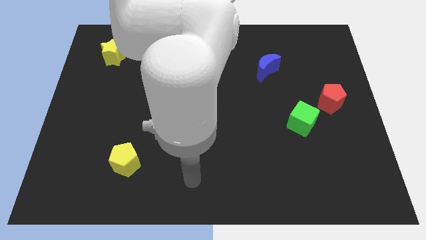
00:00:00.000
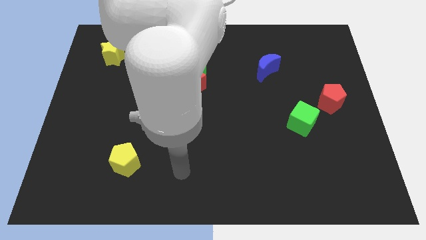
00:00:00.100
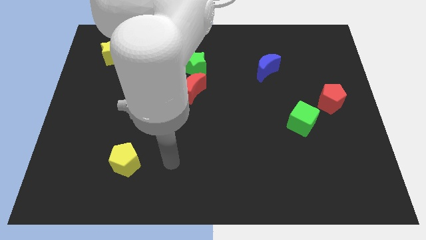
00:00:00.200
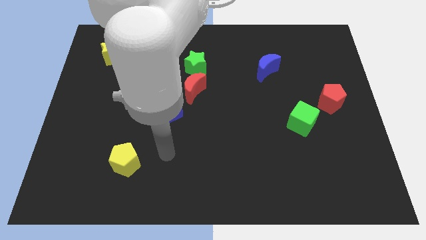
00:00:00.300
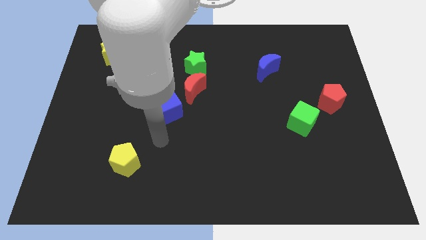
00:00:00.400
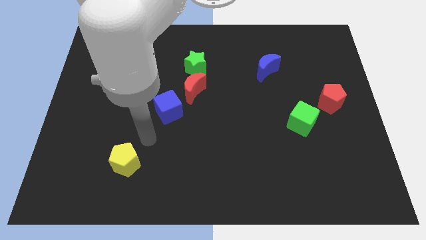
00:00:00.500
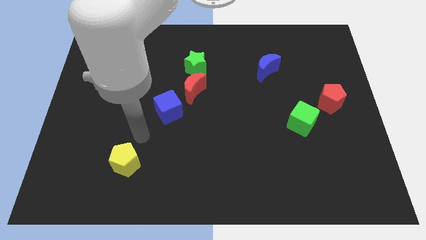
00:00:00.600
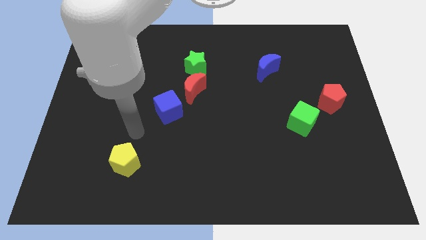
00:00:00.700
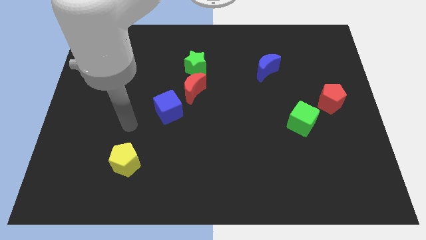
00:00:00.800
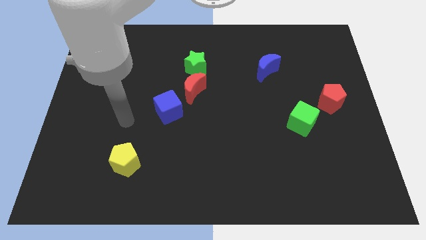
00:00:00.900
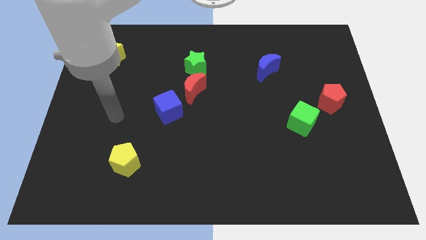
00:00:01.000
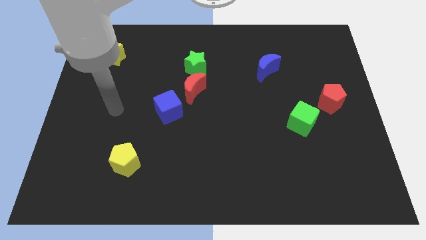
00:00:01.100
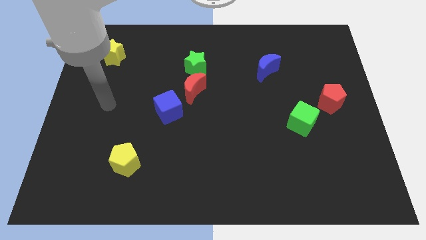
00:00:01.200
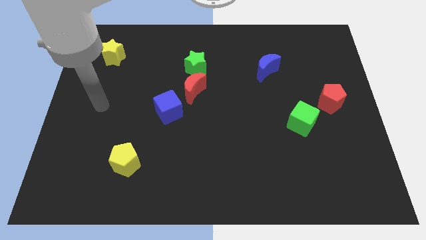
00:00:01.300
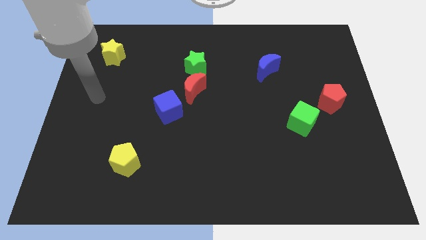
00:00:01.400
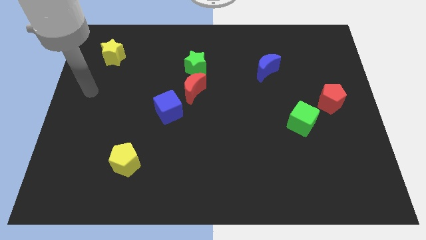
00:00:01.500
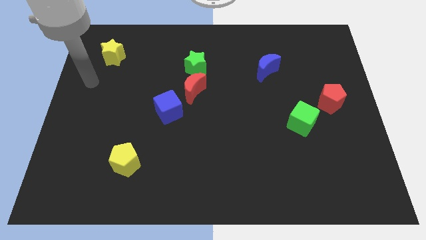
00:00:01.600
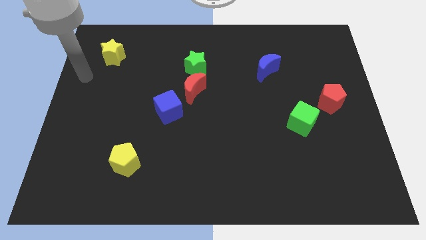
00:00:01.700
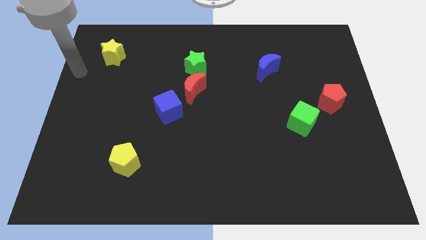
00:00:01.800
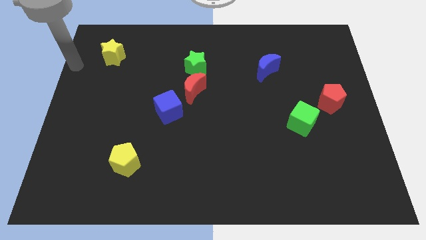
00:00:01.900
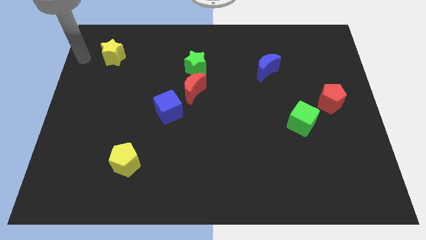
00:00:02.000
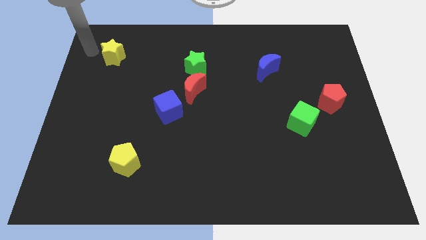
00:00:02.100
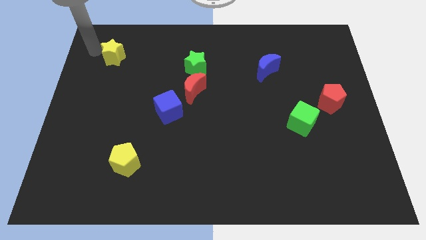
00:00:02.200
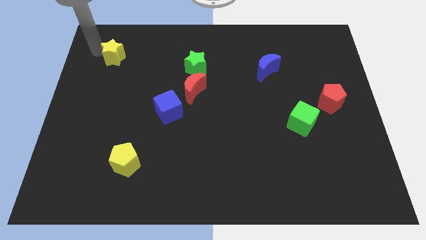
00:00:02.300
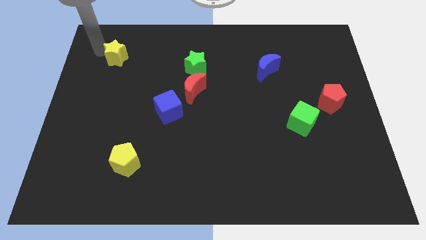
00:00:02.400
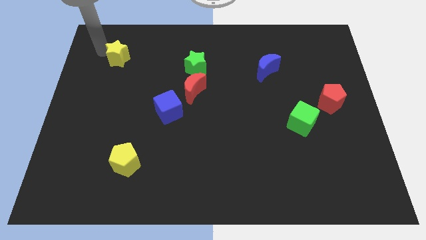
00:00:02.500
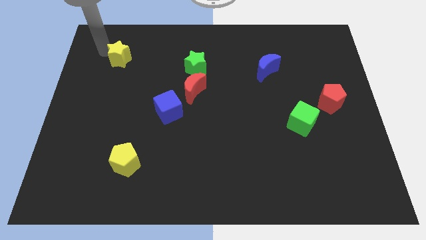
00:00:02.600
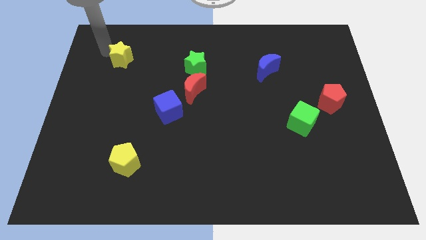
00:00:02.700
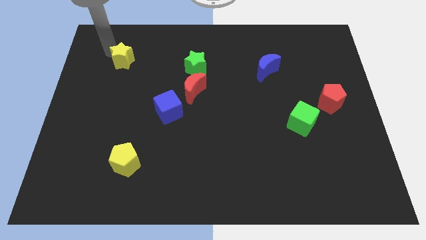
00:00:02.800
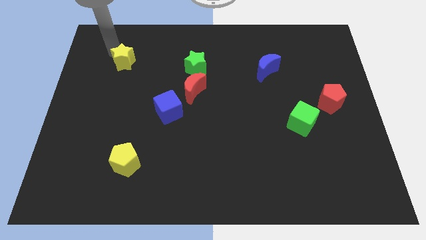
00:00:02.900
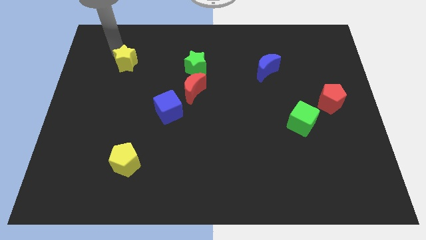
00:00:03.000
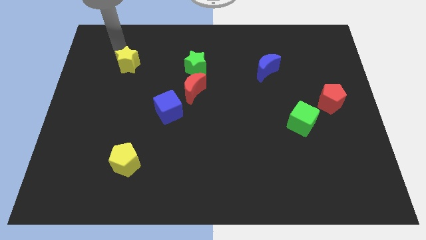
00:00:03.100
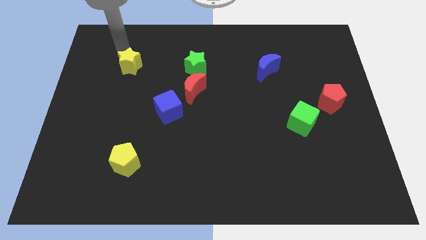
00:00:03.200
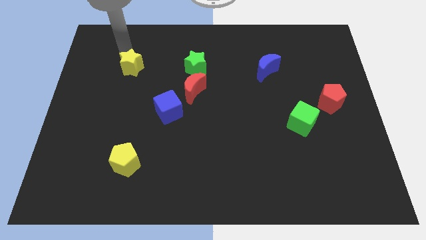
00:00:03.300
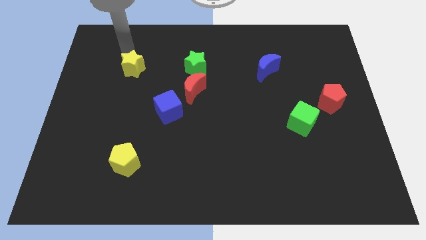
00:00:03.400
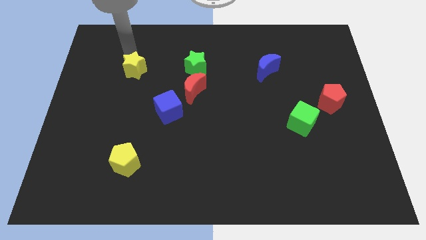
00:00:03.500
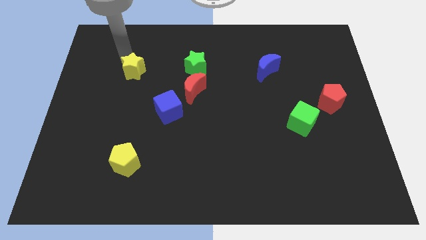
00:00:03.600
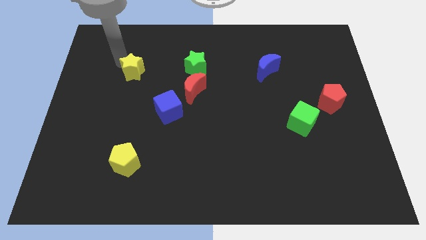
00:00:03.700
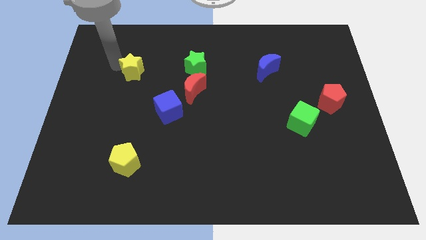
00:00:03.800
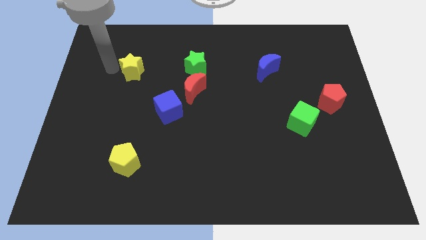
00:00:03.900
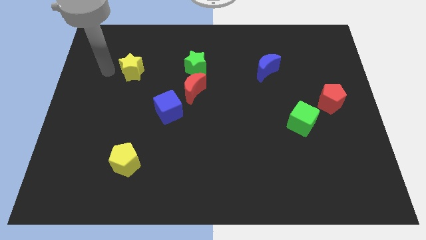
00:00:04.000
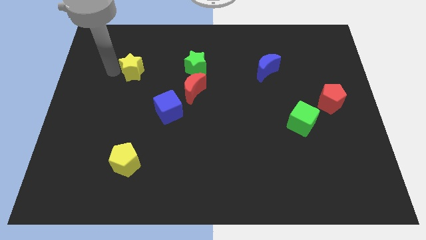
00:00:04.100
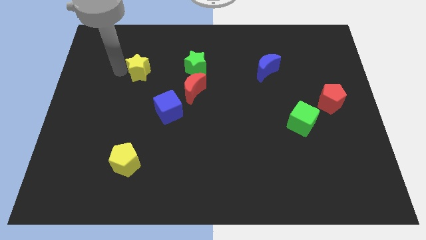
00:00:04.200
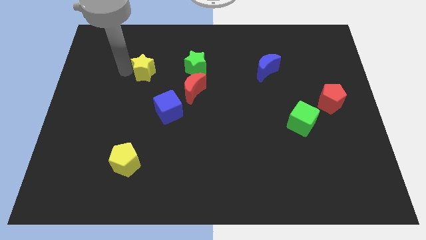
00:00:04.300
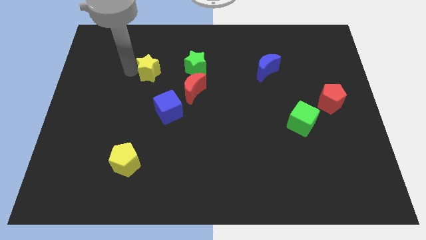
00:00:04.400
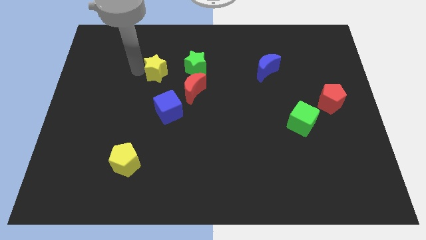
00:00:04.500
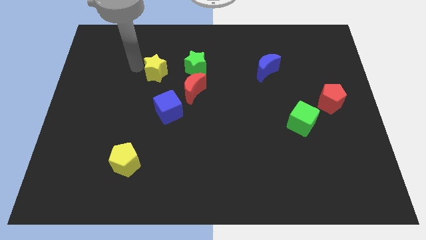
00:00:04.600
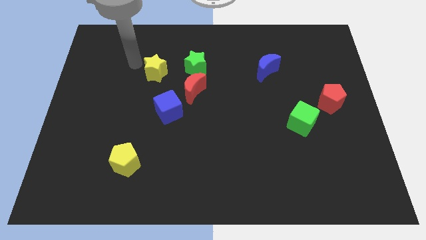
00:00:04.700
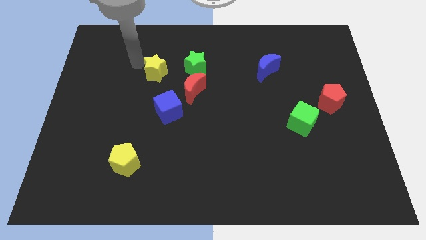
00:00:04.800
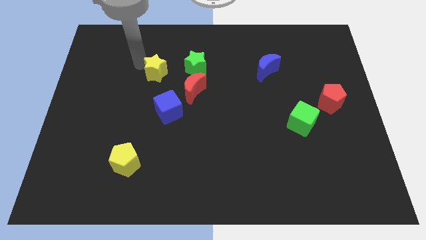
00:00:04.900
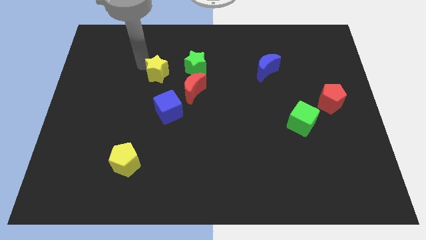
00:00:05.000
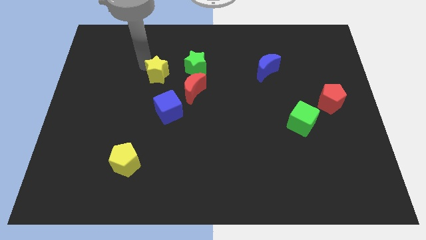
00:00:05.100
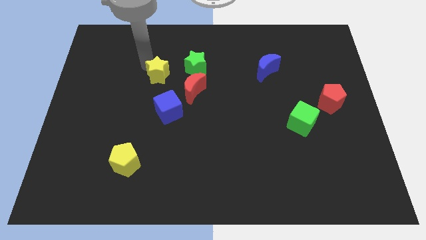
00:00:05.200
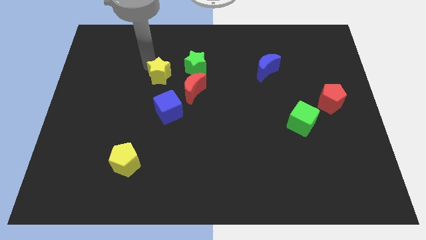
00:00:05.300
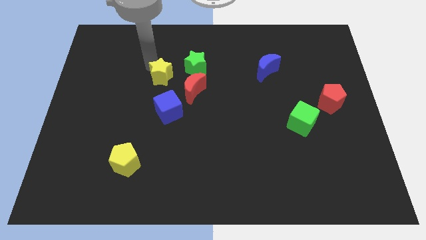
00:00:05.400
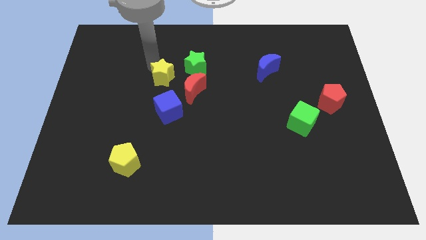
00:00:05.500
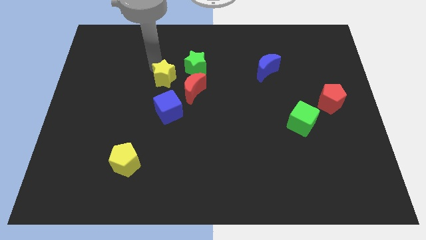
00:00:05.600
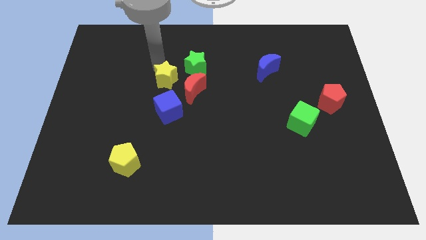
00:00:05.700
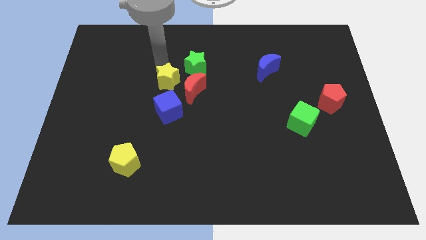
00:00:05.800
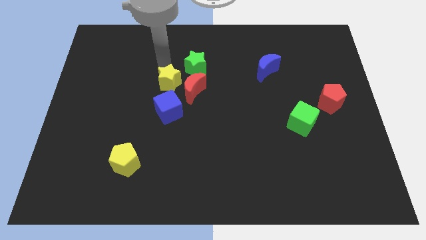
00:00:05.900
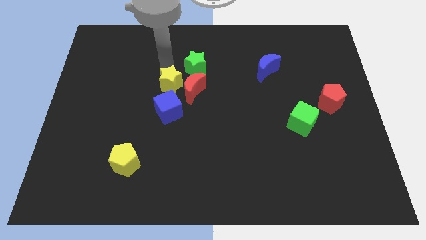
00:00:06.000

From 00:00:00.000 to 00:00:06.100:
slide the yellow star towards the red moon

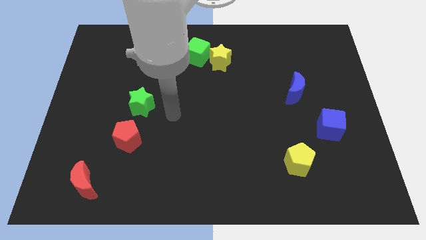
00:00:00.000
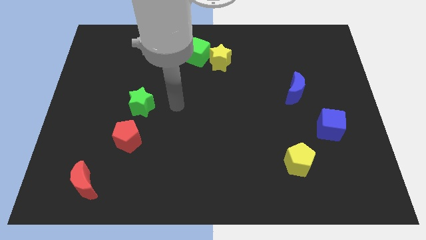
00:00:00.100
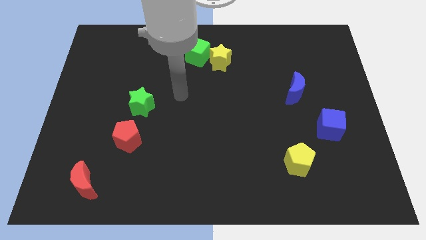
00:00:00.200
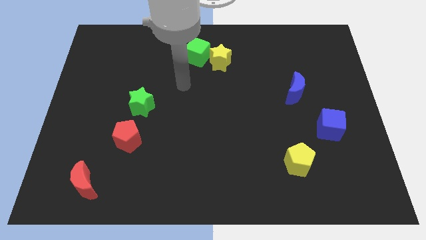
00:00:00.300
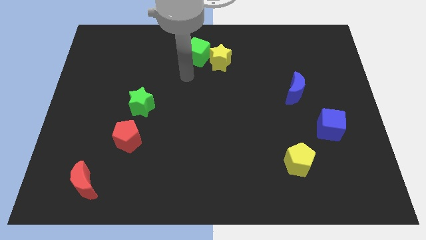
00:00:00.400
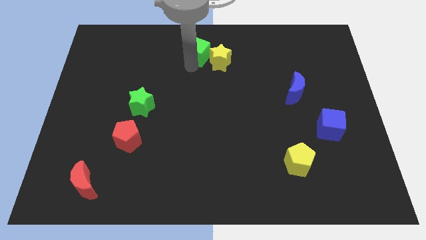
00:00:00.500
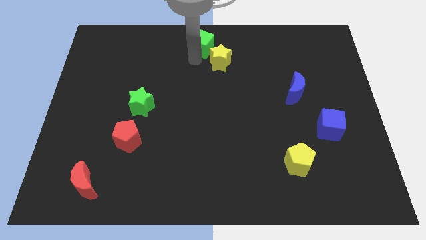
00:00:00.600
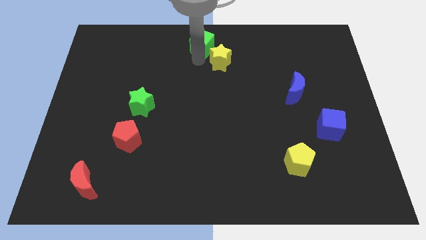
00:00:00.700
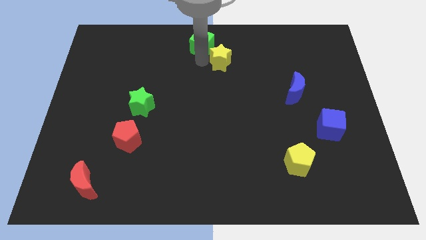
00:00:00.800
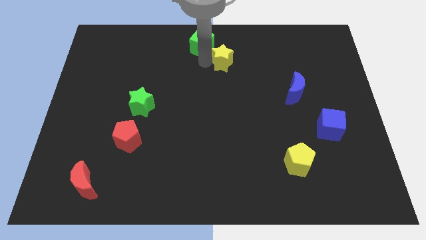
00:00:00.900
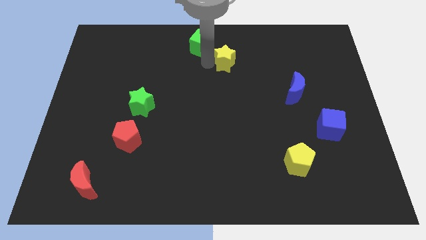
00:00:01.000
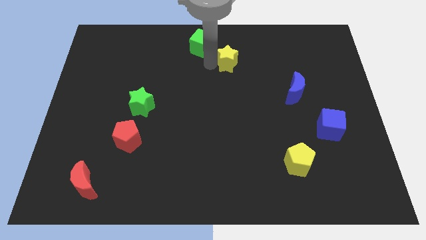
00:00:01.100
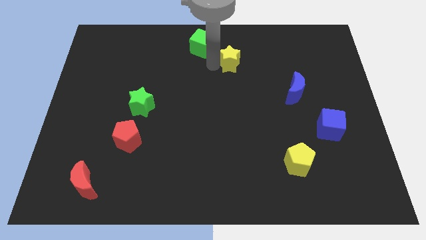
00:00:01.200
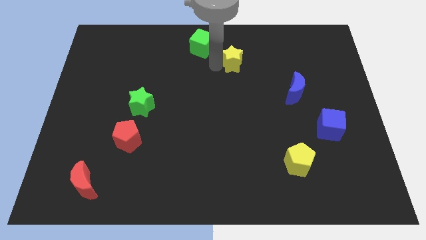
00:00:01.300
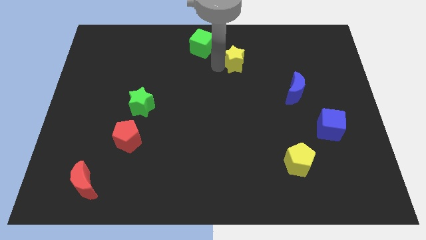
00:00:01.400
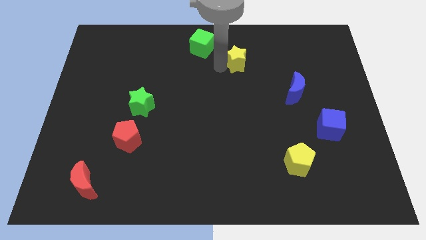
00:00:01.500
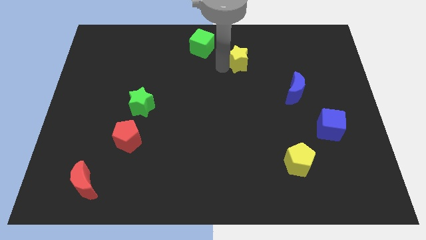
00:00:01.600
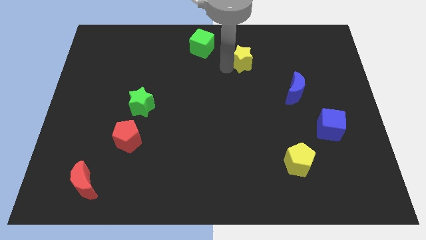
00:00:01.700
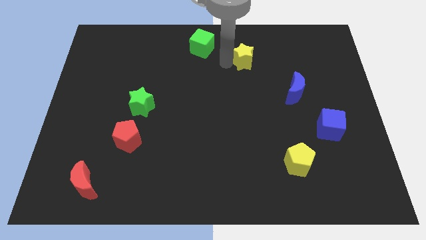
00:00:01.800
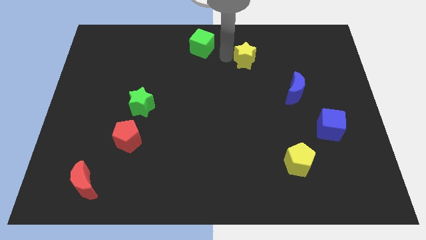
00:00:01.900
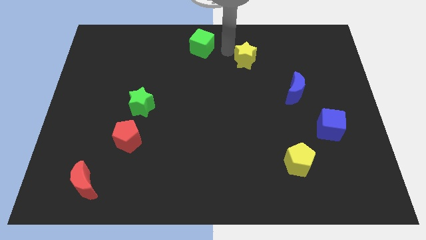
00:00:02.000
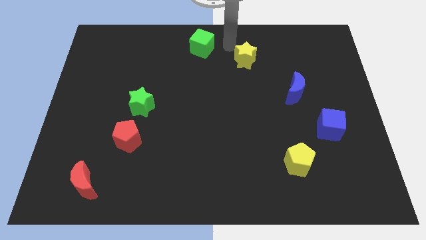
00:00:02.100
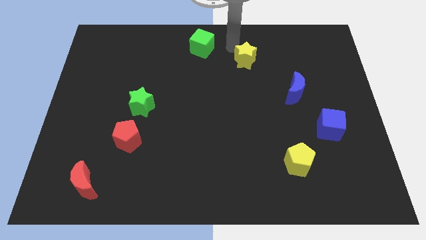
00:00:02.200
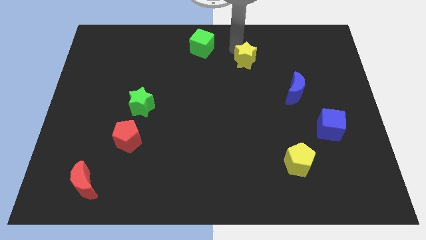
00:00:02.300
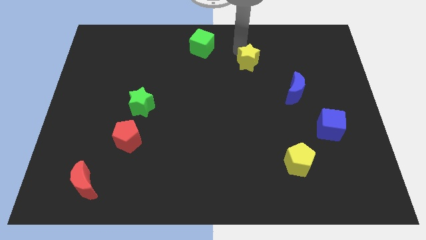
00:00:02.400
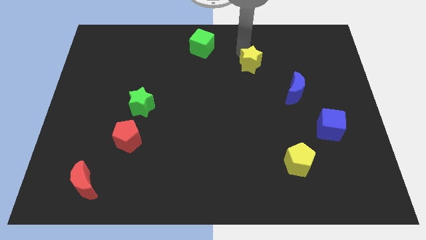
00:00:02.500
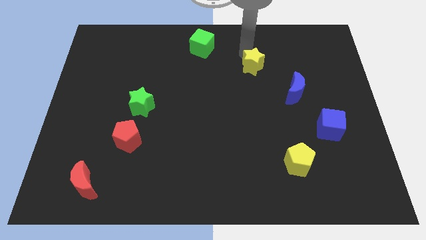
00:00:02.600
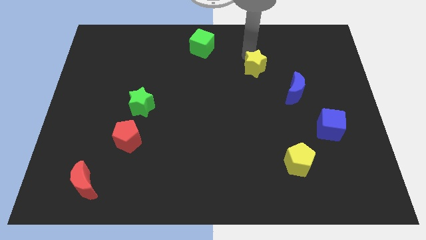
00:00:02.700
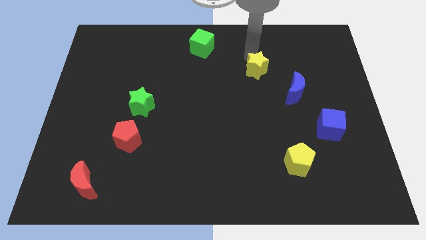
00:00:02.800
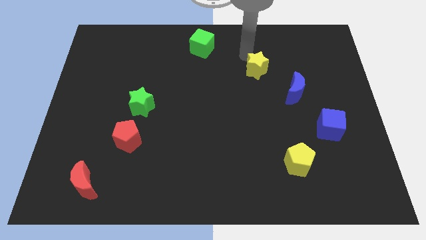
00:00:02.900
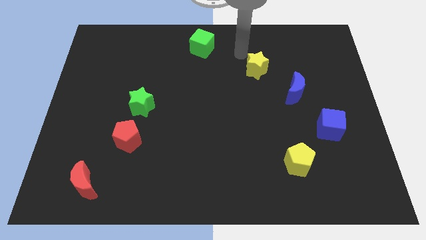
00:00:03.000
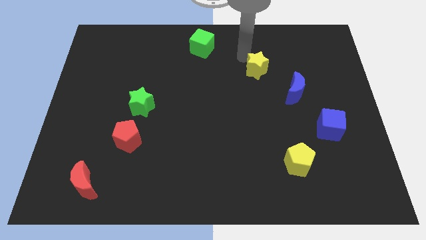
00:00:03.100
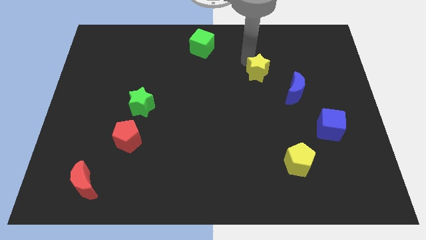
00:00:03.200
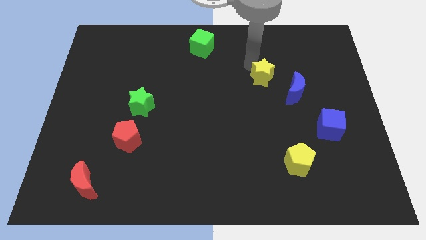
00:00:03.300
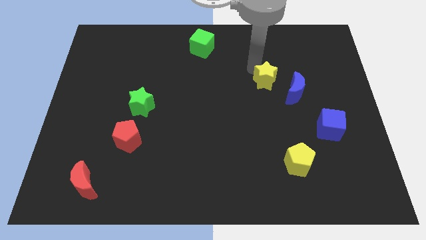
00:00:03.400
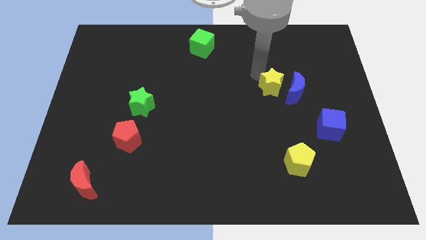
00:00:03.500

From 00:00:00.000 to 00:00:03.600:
slide the yellow star to the blue moon
